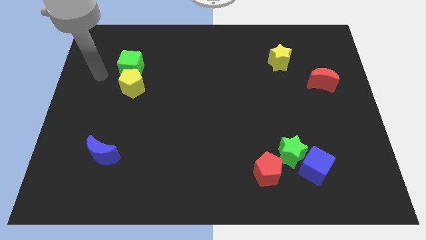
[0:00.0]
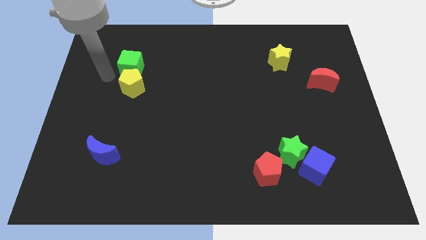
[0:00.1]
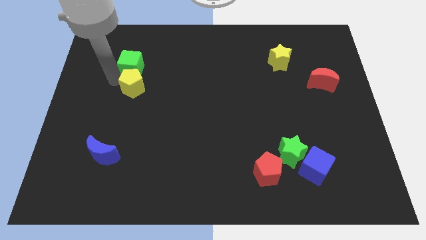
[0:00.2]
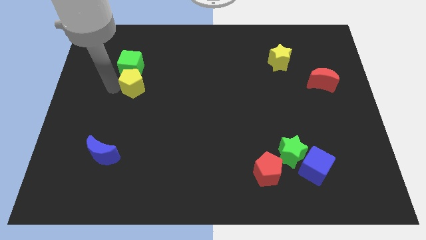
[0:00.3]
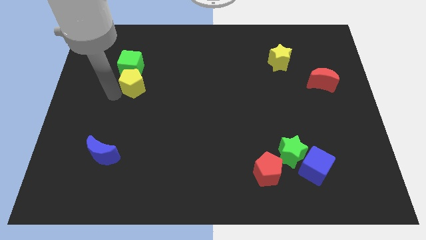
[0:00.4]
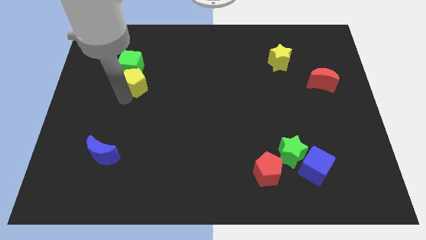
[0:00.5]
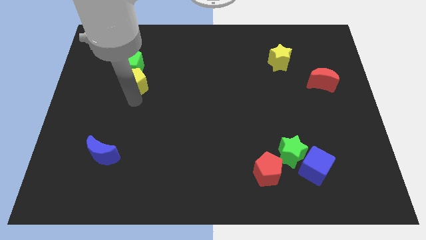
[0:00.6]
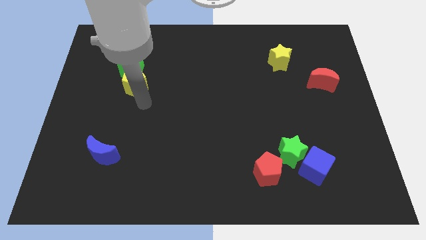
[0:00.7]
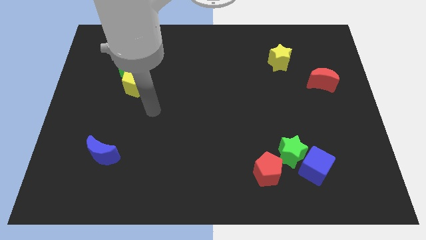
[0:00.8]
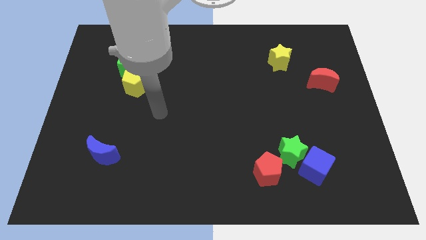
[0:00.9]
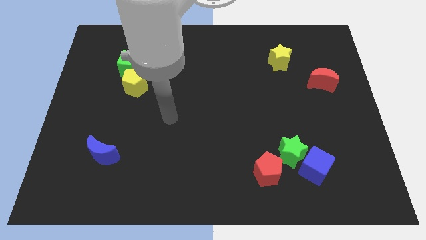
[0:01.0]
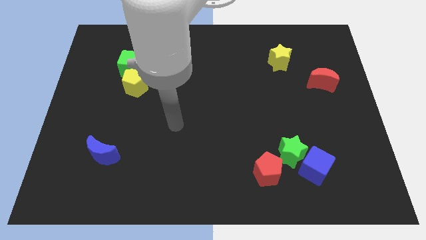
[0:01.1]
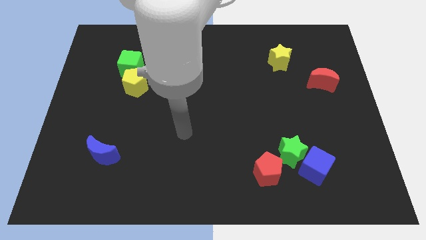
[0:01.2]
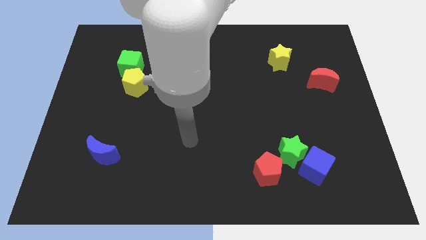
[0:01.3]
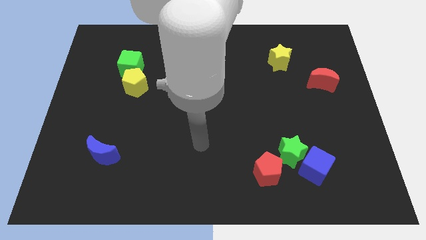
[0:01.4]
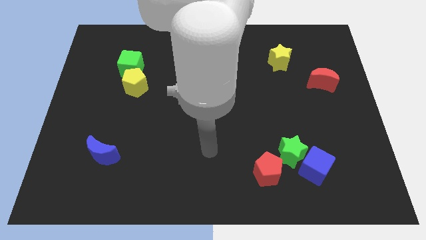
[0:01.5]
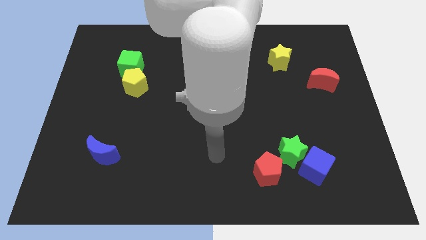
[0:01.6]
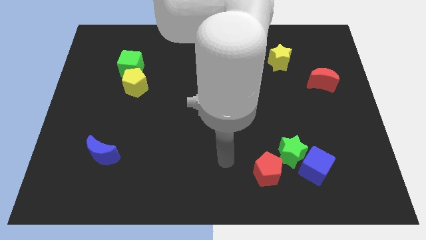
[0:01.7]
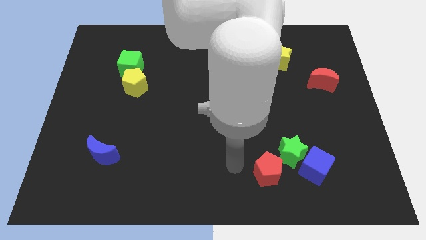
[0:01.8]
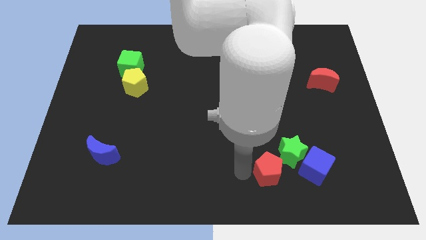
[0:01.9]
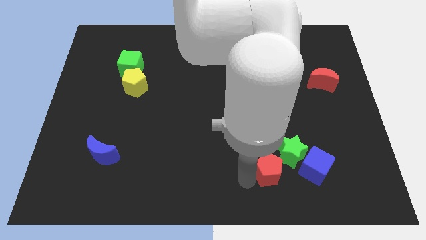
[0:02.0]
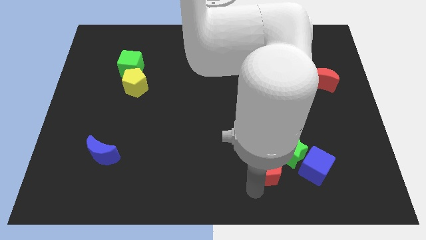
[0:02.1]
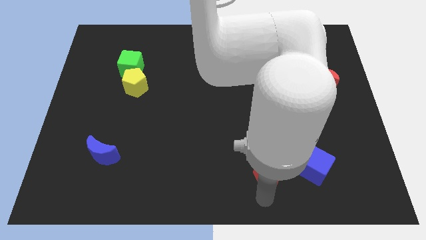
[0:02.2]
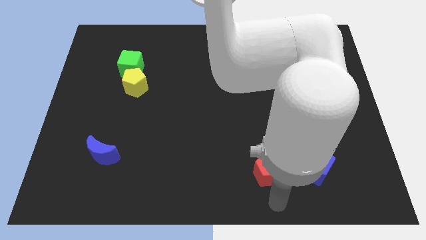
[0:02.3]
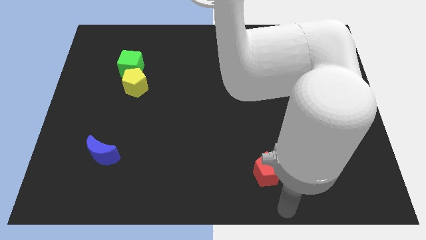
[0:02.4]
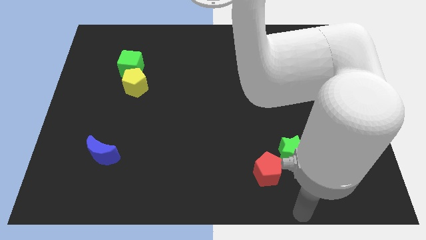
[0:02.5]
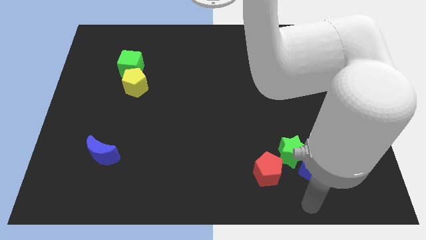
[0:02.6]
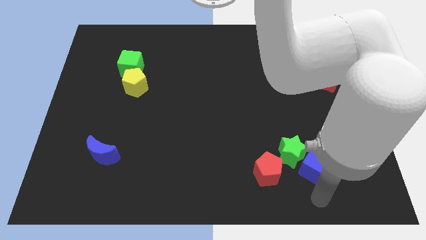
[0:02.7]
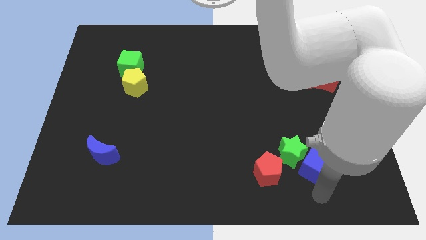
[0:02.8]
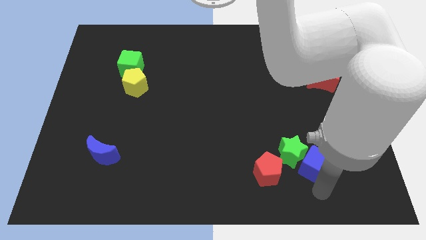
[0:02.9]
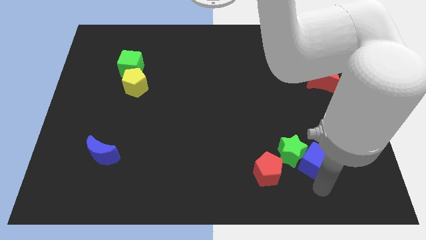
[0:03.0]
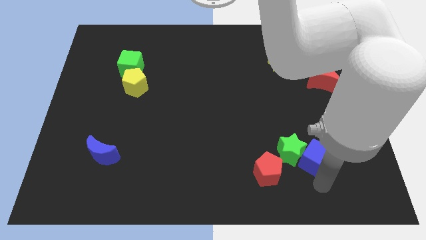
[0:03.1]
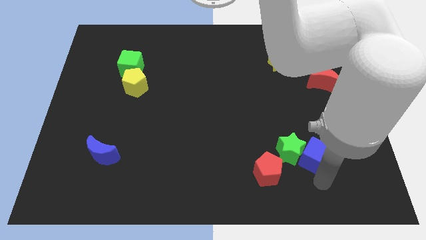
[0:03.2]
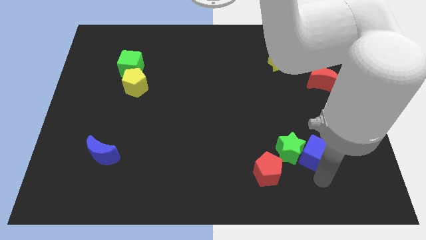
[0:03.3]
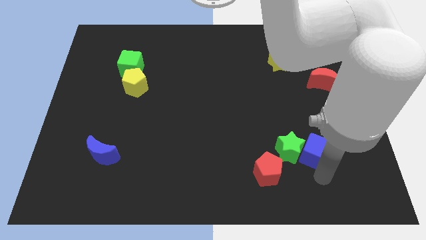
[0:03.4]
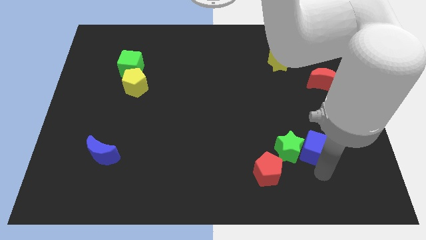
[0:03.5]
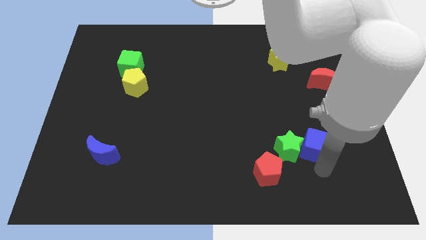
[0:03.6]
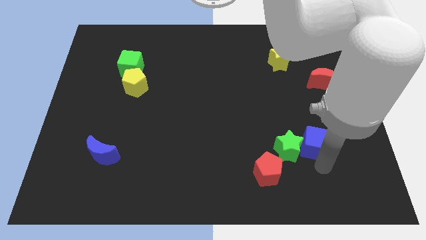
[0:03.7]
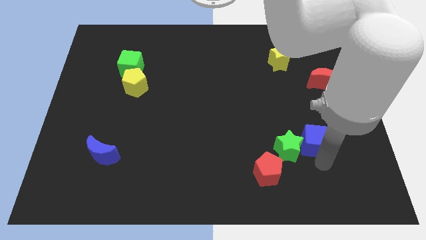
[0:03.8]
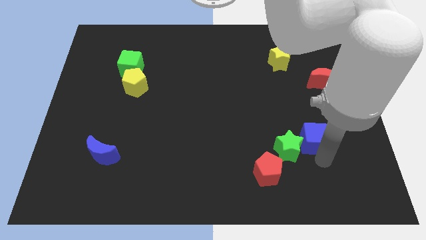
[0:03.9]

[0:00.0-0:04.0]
push the blue cube upwards a little

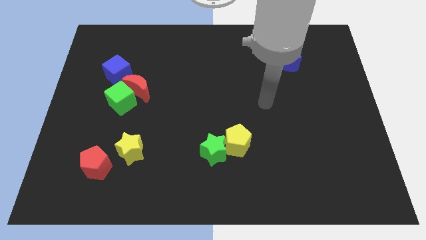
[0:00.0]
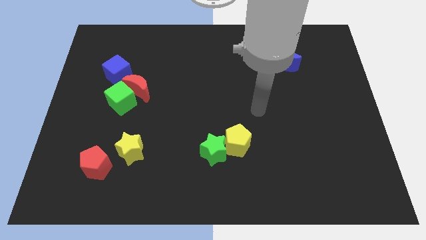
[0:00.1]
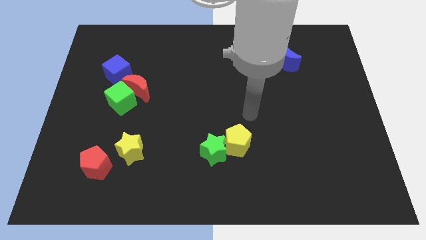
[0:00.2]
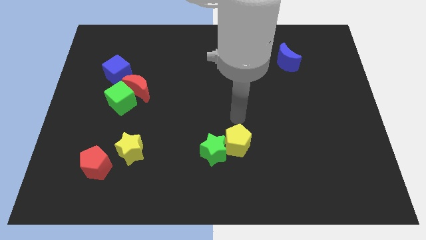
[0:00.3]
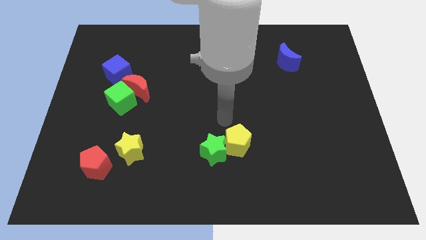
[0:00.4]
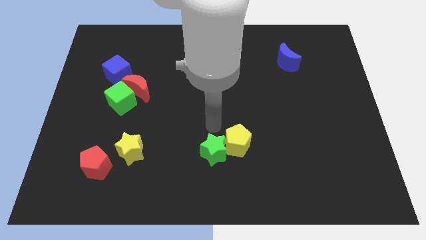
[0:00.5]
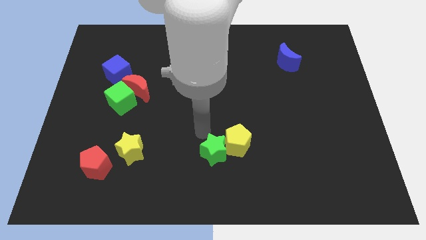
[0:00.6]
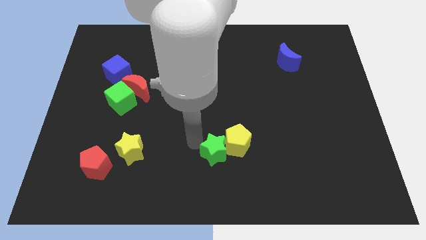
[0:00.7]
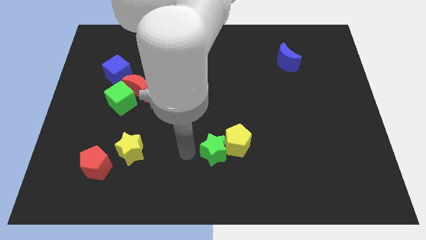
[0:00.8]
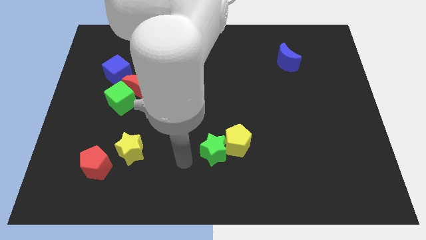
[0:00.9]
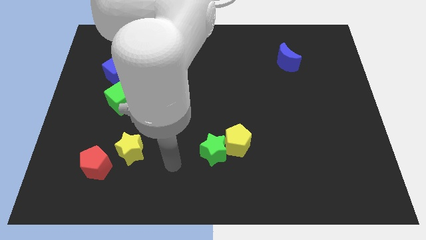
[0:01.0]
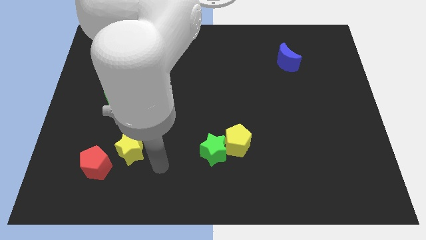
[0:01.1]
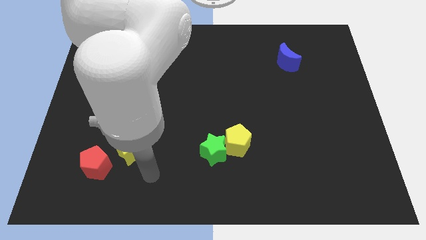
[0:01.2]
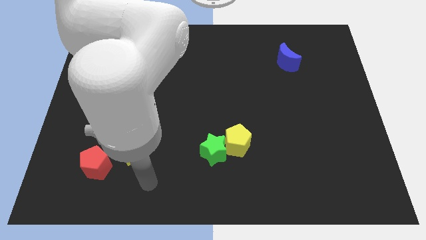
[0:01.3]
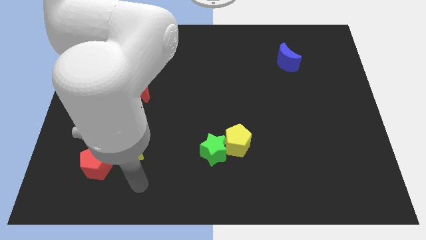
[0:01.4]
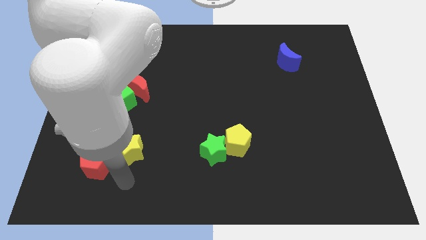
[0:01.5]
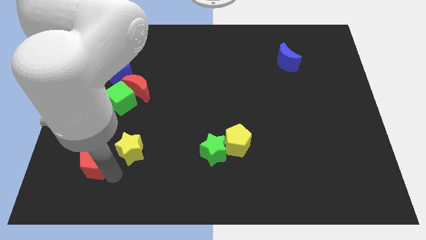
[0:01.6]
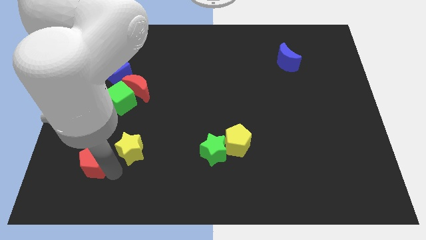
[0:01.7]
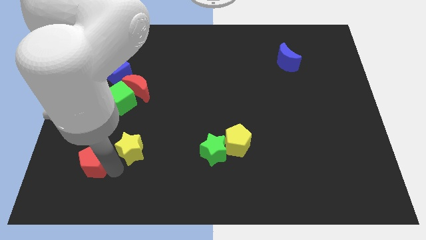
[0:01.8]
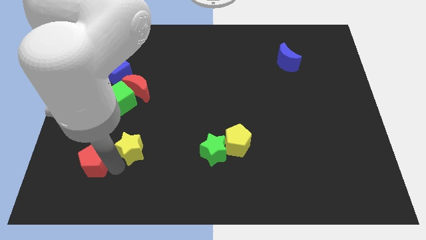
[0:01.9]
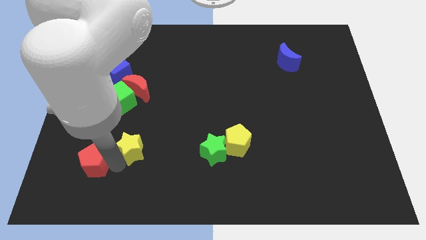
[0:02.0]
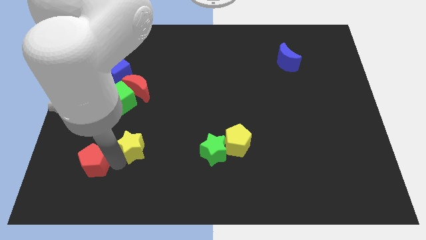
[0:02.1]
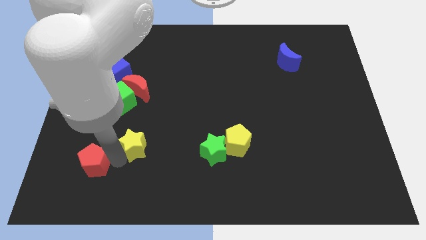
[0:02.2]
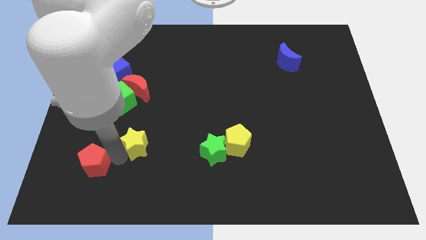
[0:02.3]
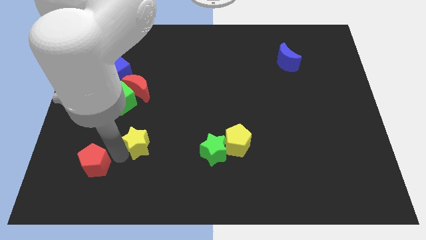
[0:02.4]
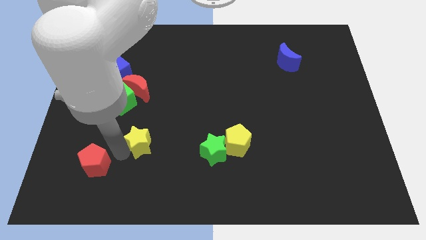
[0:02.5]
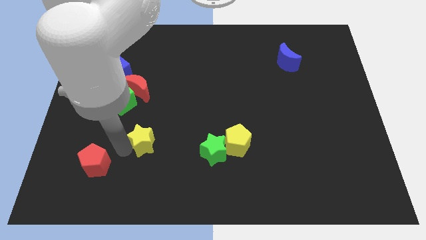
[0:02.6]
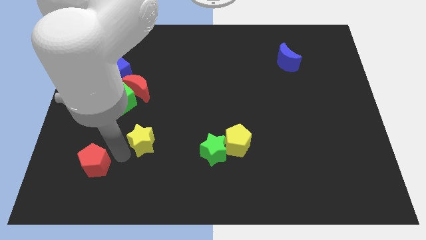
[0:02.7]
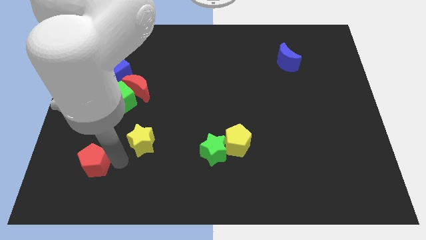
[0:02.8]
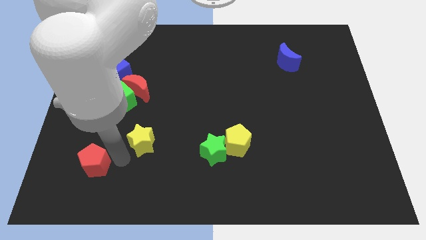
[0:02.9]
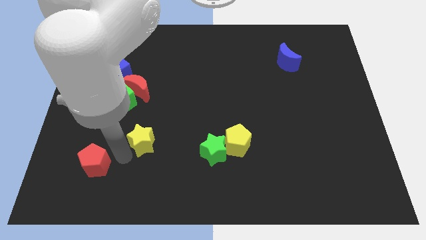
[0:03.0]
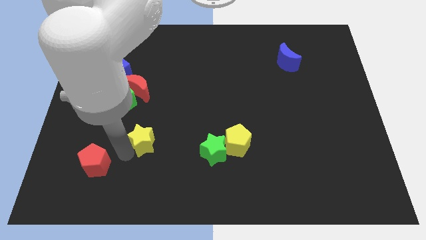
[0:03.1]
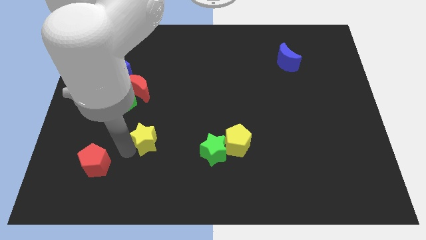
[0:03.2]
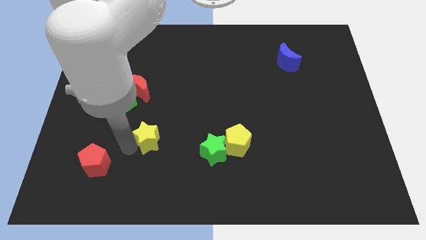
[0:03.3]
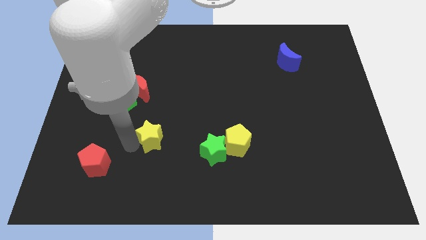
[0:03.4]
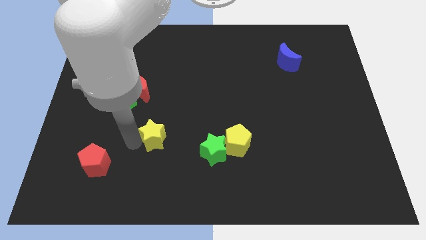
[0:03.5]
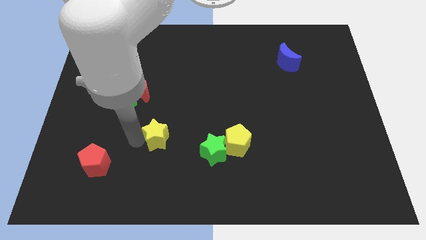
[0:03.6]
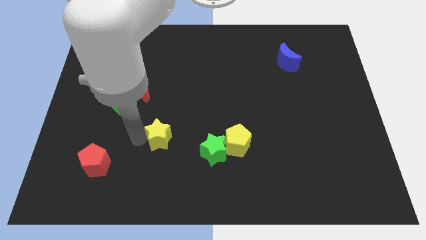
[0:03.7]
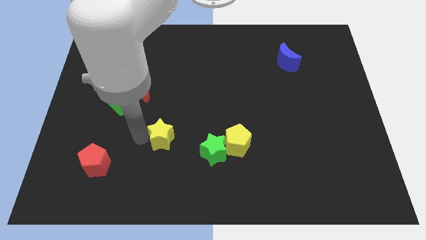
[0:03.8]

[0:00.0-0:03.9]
slide the yellow star up and right a little bit

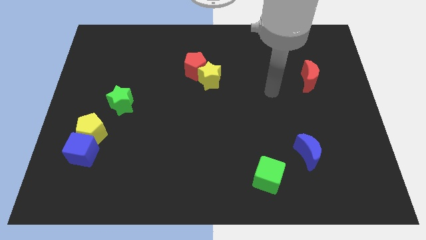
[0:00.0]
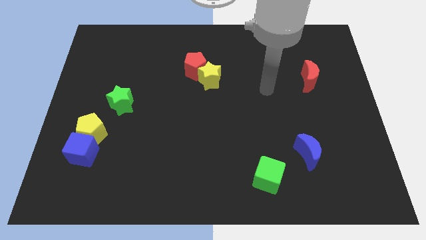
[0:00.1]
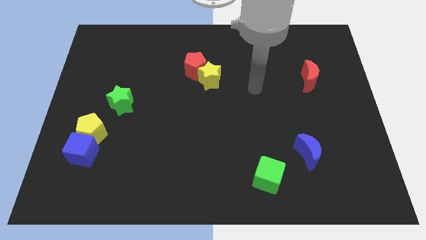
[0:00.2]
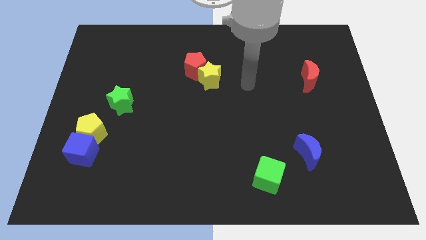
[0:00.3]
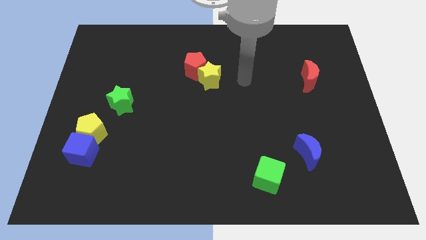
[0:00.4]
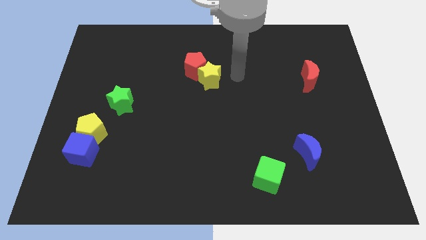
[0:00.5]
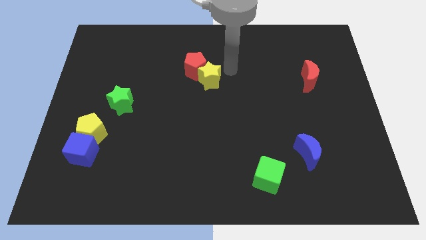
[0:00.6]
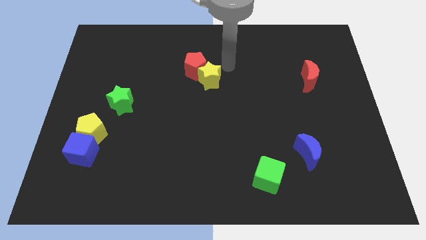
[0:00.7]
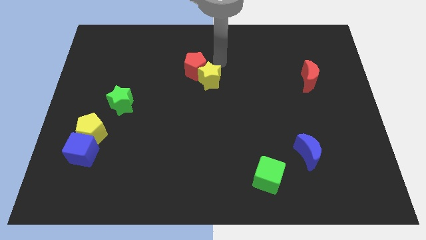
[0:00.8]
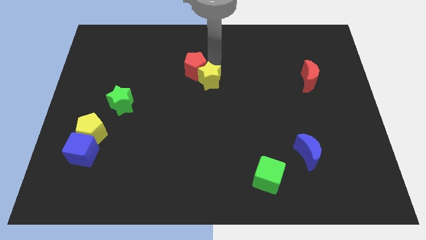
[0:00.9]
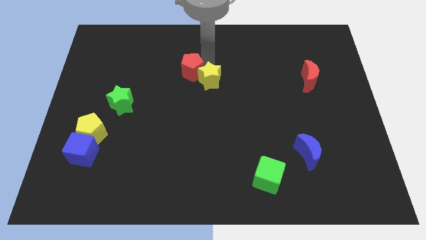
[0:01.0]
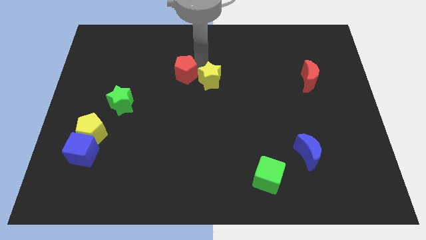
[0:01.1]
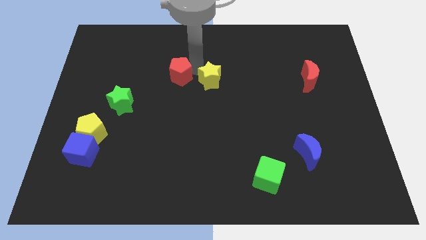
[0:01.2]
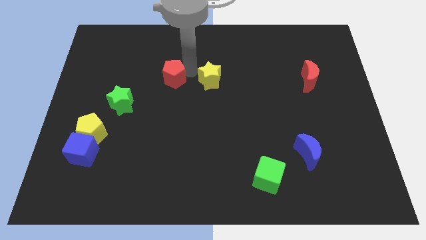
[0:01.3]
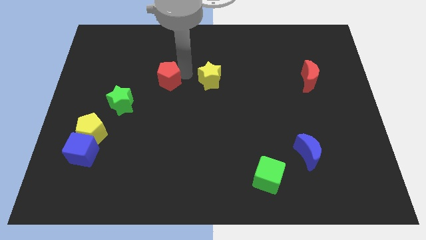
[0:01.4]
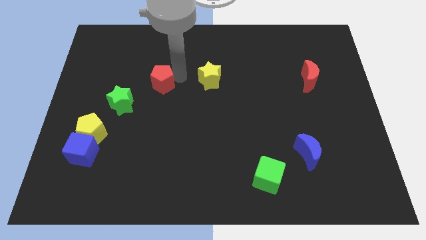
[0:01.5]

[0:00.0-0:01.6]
push the red pentagon to the left a little bit
